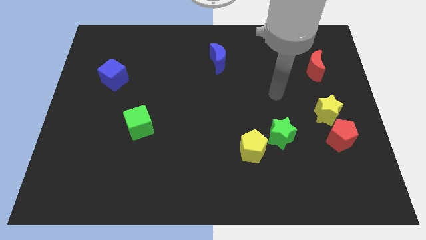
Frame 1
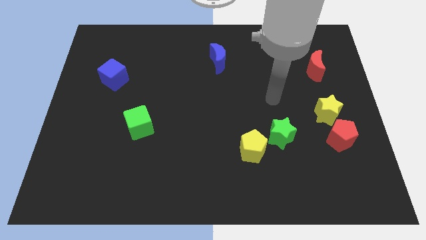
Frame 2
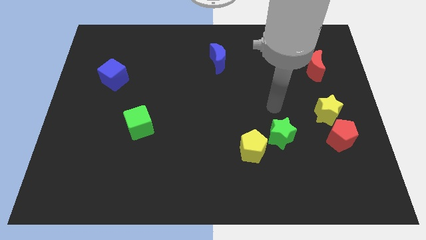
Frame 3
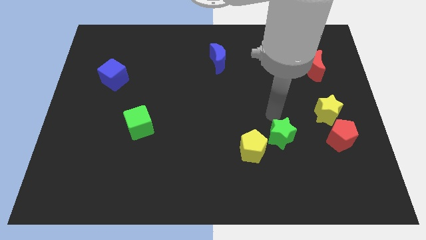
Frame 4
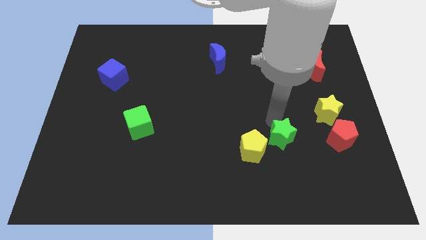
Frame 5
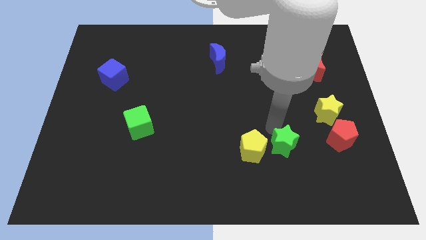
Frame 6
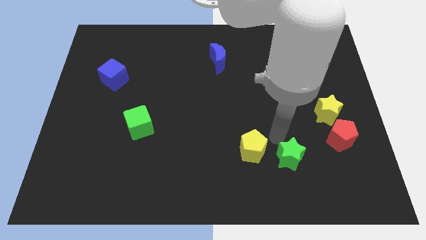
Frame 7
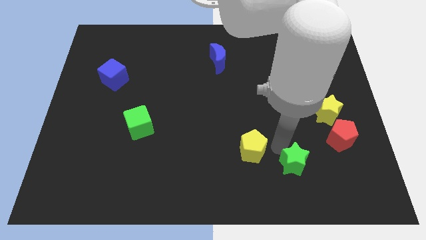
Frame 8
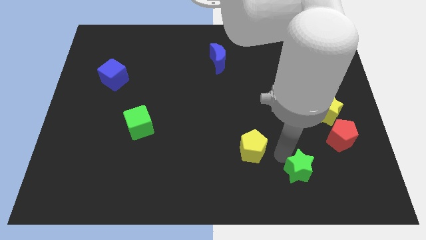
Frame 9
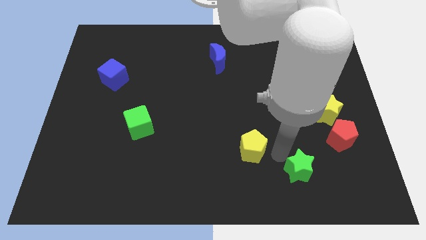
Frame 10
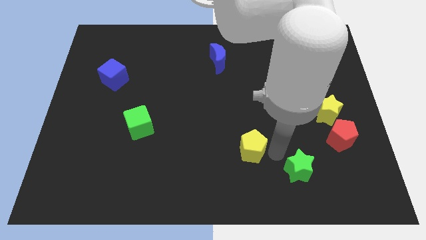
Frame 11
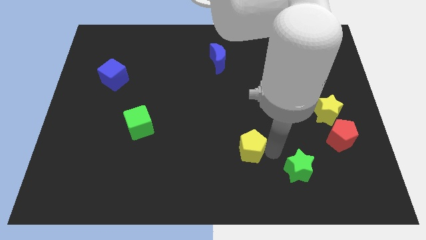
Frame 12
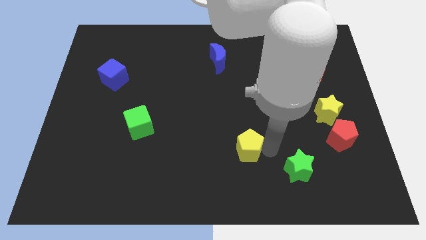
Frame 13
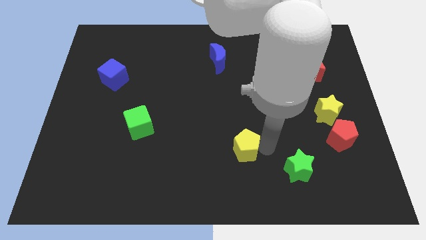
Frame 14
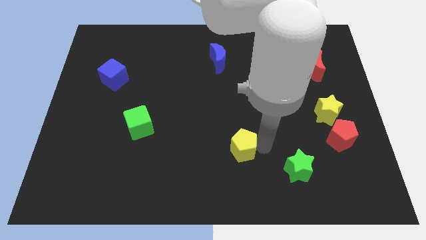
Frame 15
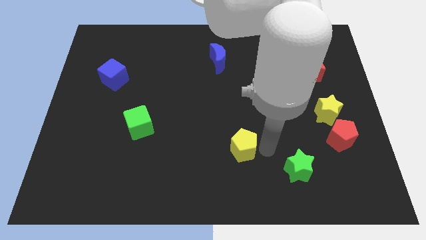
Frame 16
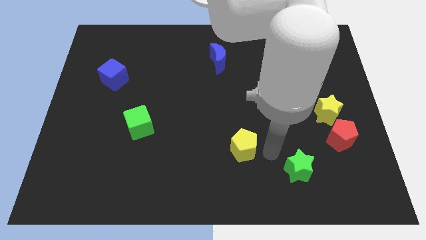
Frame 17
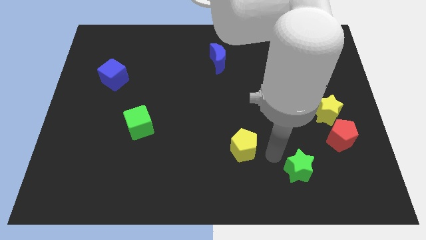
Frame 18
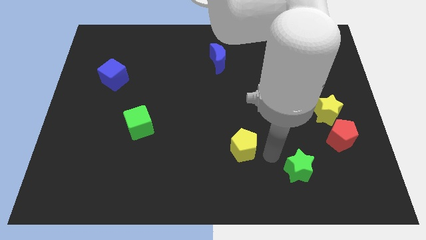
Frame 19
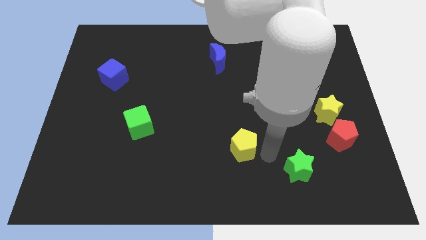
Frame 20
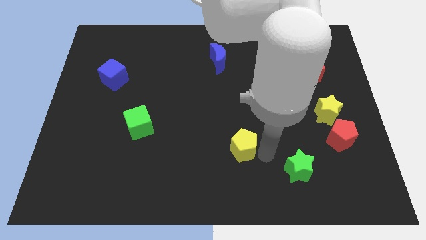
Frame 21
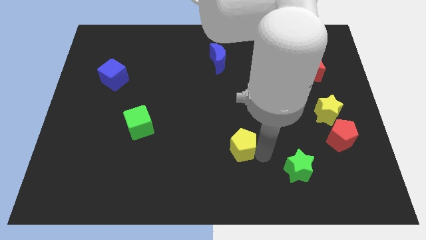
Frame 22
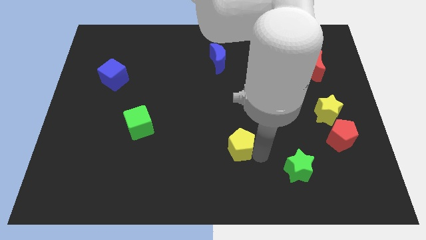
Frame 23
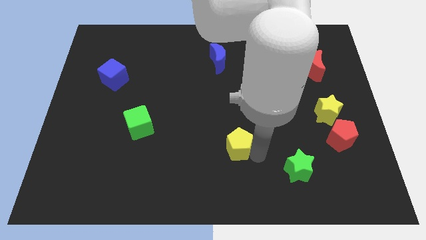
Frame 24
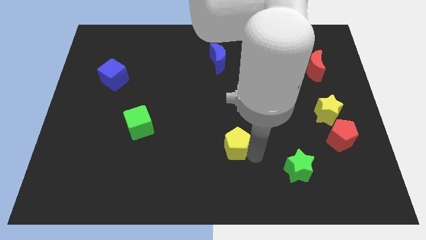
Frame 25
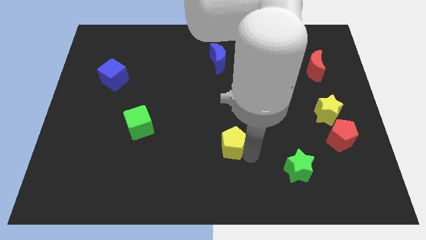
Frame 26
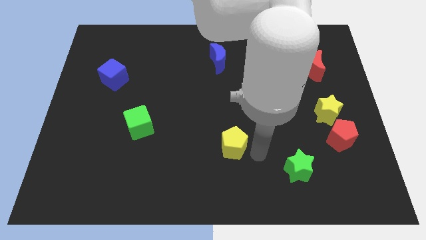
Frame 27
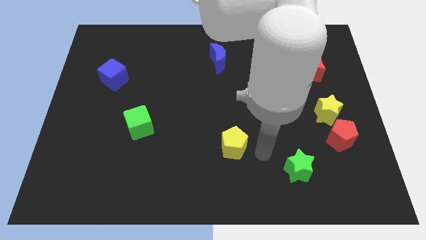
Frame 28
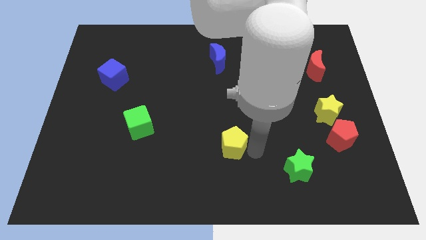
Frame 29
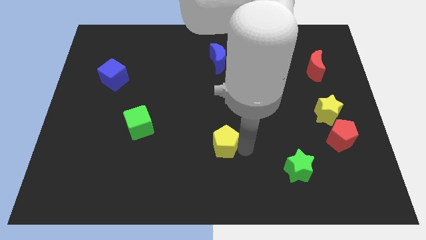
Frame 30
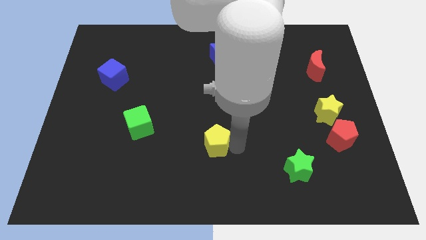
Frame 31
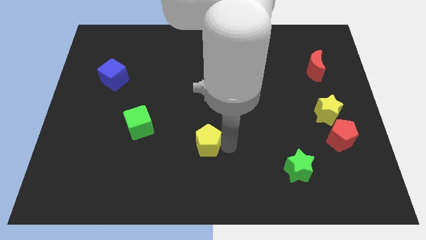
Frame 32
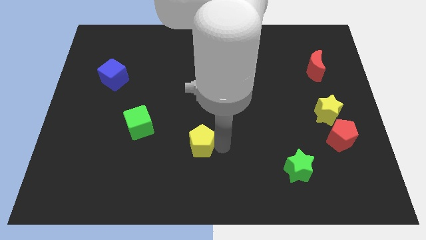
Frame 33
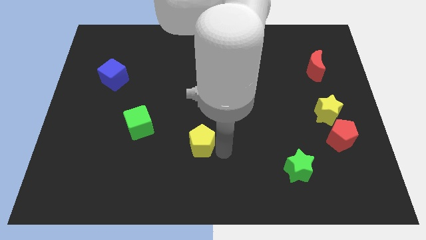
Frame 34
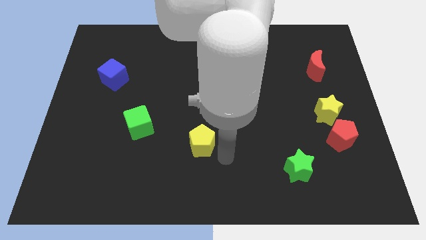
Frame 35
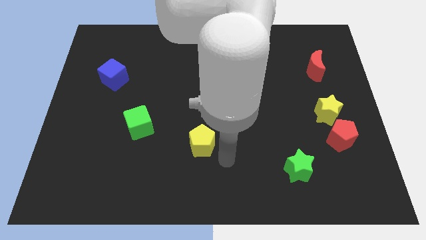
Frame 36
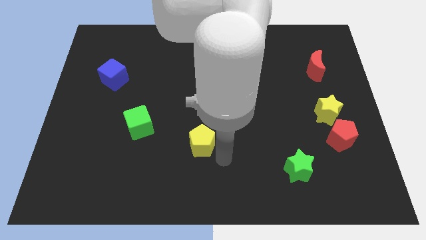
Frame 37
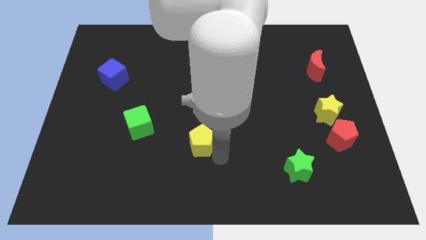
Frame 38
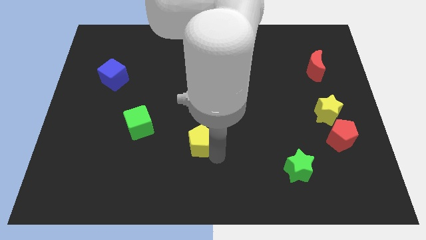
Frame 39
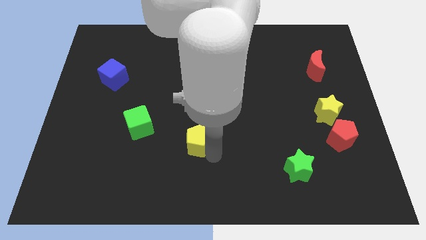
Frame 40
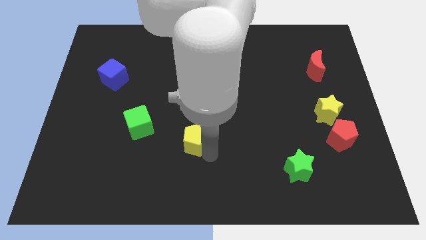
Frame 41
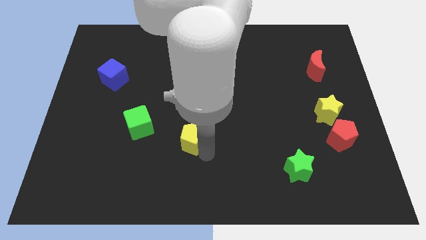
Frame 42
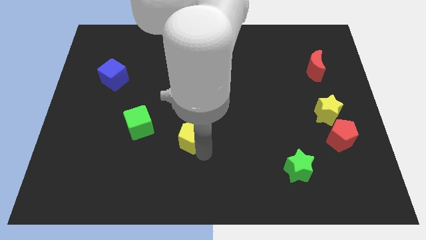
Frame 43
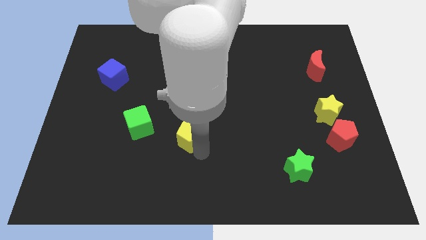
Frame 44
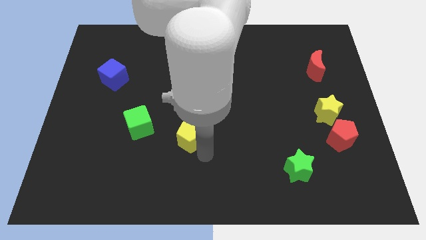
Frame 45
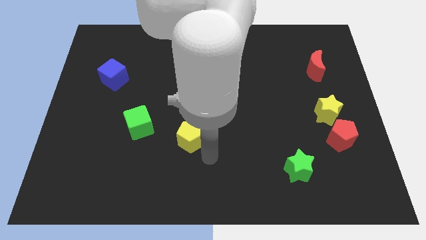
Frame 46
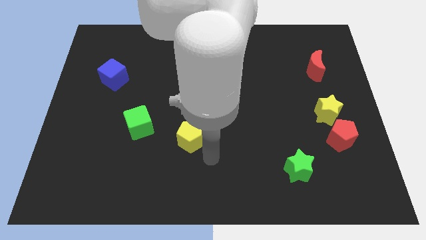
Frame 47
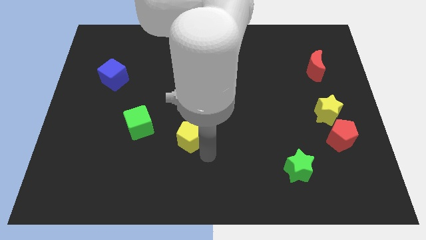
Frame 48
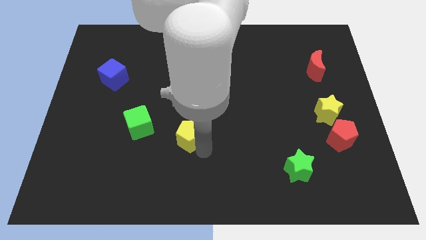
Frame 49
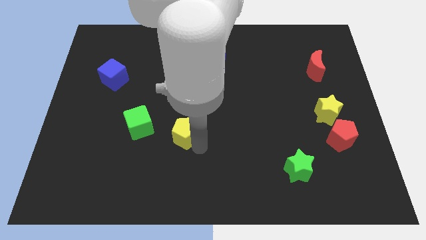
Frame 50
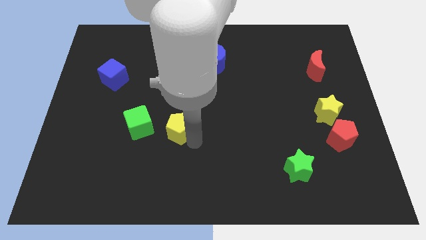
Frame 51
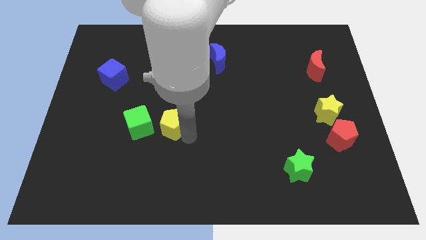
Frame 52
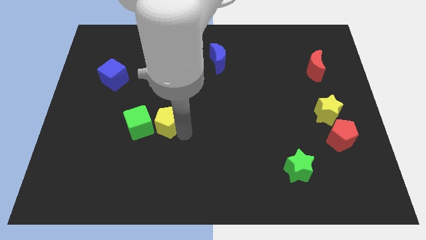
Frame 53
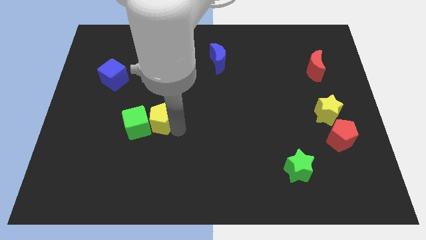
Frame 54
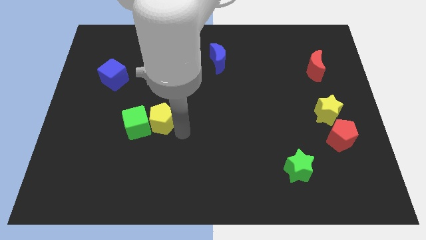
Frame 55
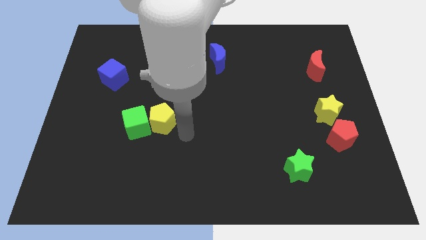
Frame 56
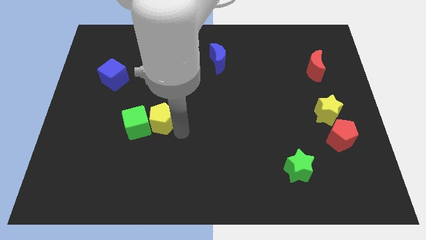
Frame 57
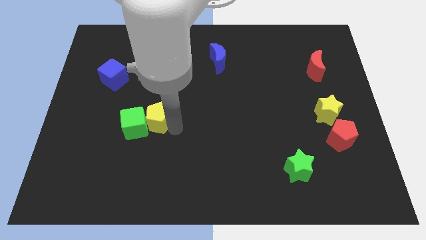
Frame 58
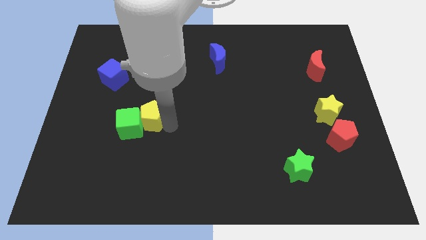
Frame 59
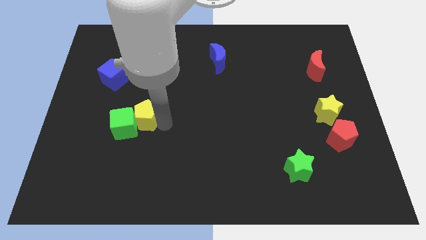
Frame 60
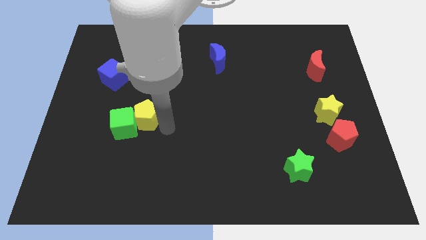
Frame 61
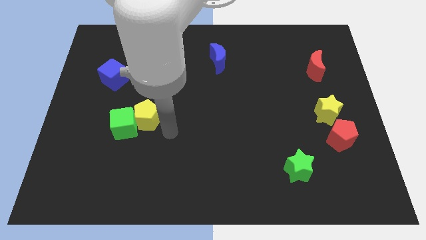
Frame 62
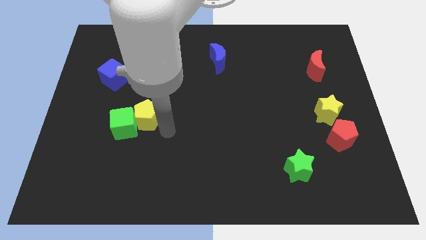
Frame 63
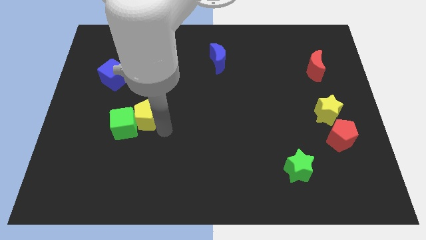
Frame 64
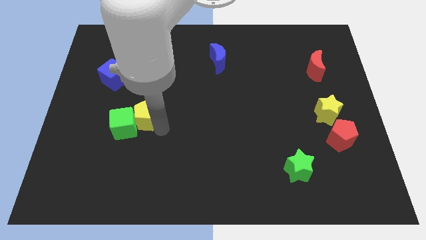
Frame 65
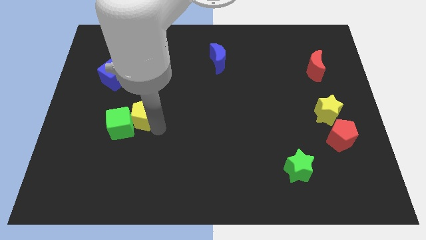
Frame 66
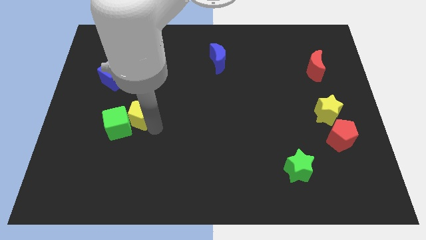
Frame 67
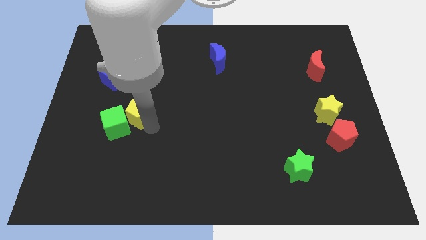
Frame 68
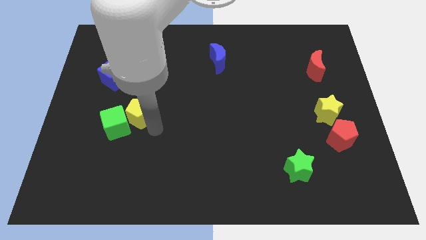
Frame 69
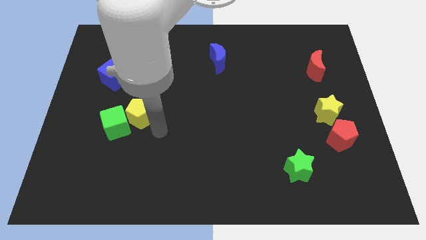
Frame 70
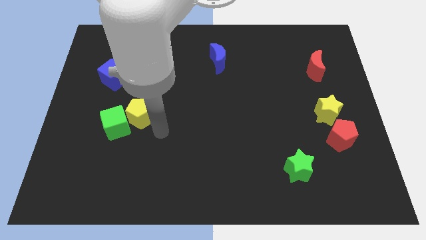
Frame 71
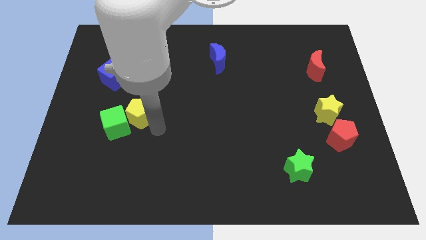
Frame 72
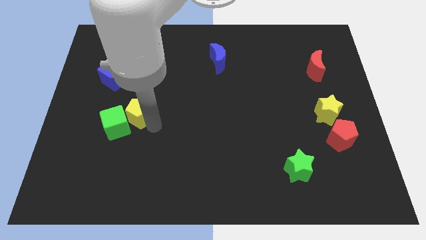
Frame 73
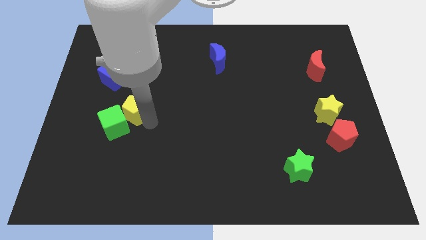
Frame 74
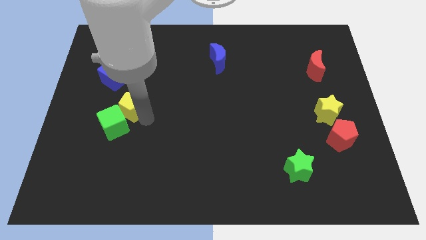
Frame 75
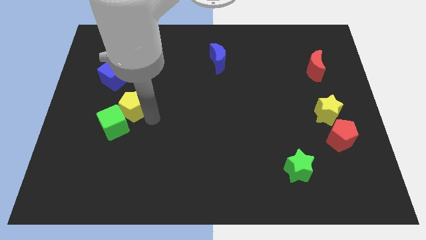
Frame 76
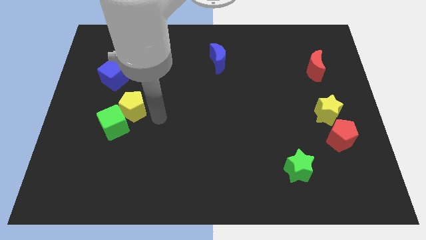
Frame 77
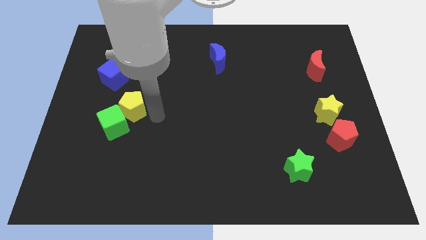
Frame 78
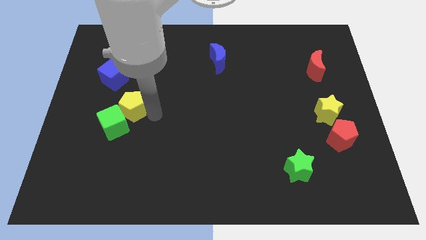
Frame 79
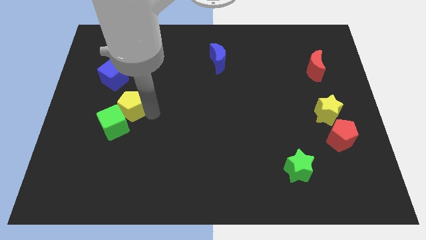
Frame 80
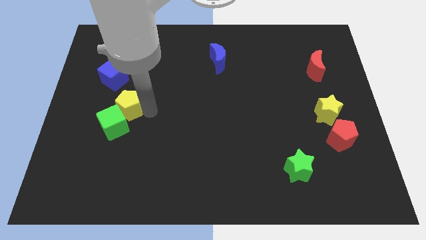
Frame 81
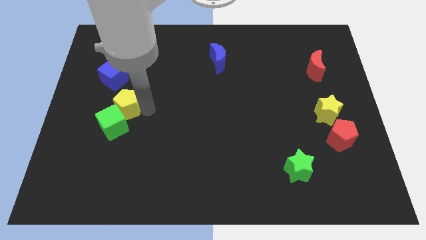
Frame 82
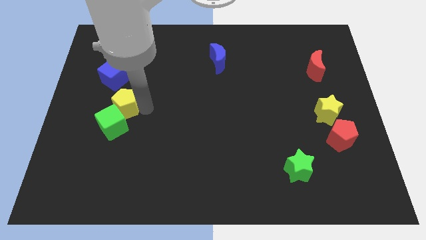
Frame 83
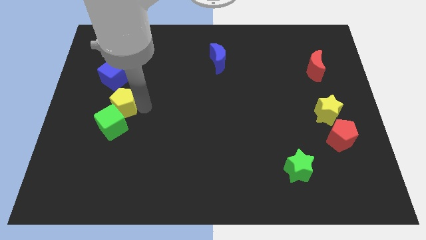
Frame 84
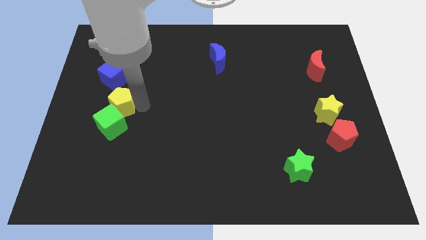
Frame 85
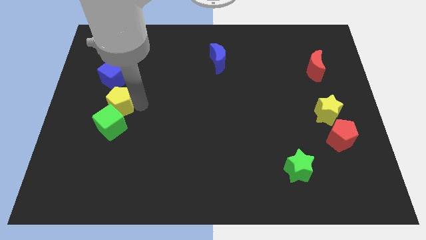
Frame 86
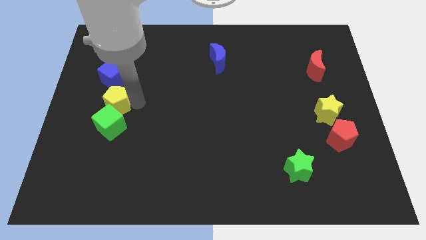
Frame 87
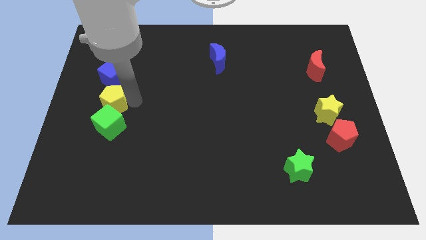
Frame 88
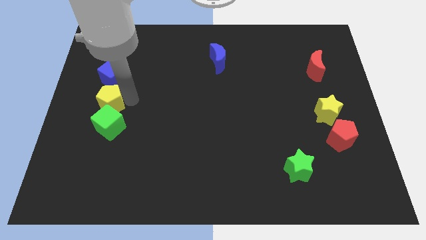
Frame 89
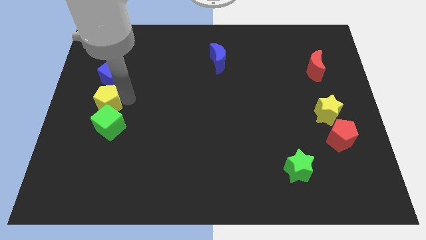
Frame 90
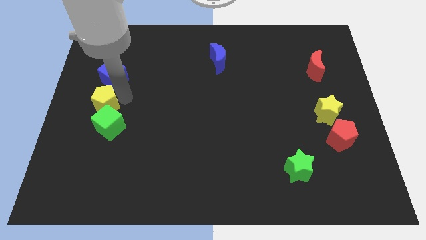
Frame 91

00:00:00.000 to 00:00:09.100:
put the yellow pentagon to the left side
